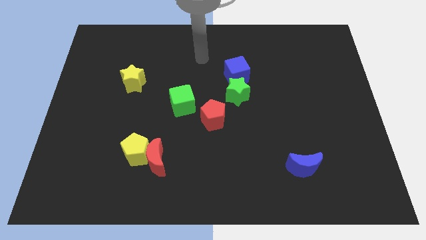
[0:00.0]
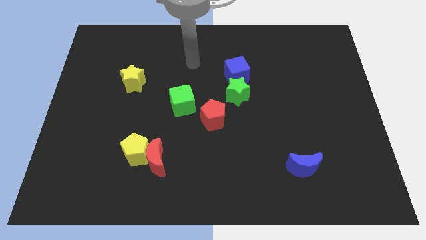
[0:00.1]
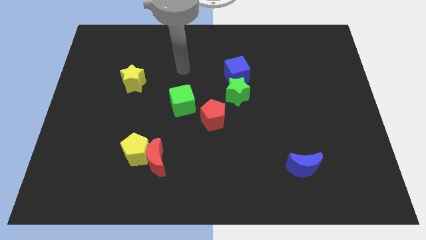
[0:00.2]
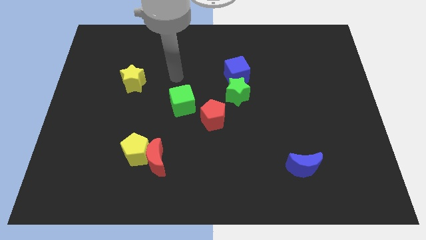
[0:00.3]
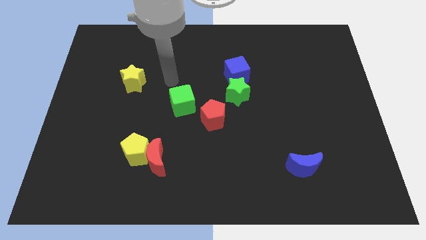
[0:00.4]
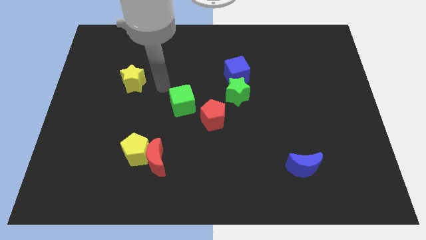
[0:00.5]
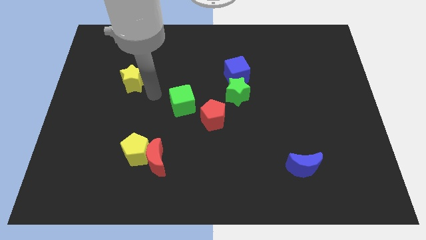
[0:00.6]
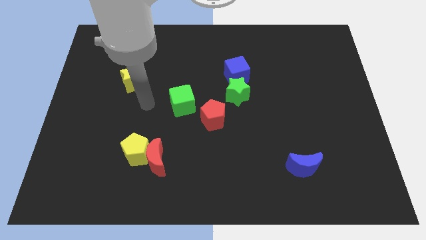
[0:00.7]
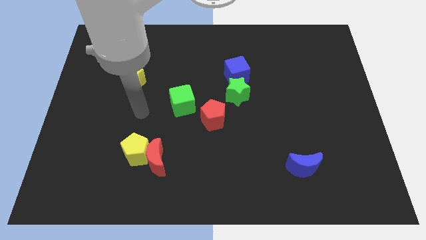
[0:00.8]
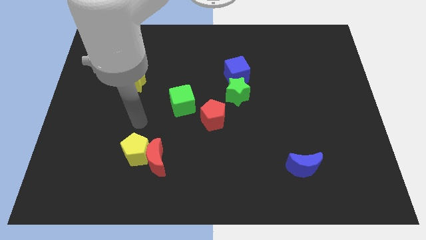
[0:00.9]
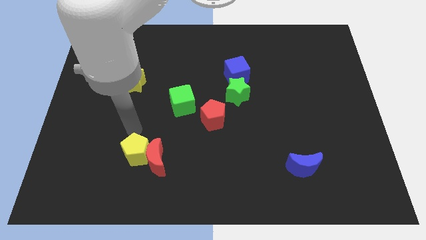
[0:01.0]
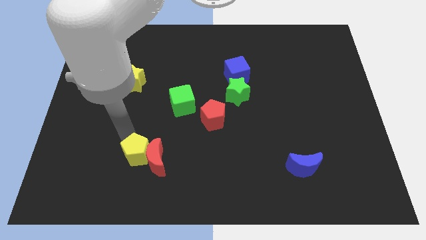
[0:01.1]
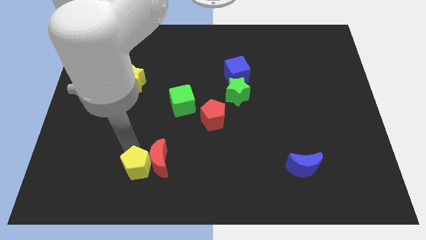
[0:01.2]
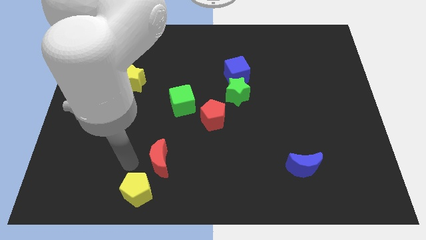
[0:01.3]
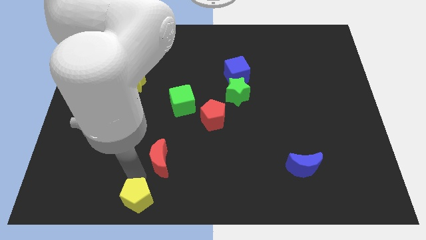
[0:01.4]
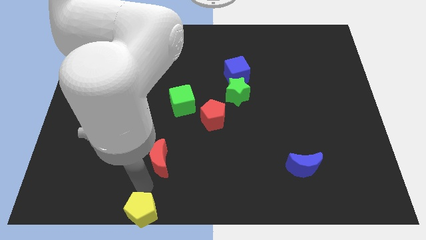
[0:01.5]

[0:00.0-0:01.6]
move the red moon away from the yellow pentagon

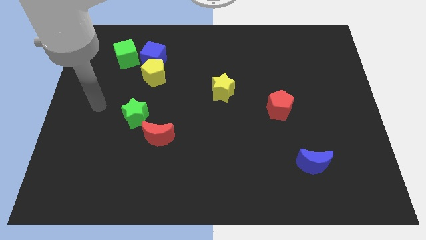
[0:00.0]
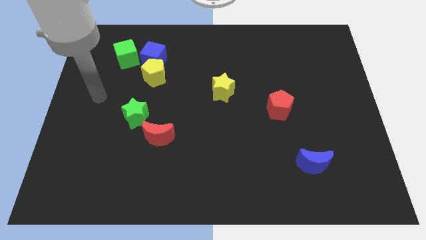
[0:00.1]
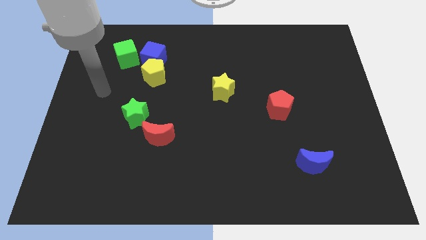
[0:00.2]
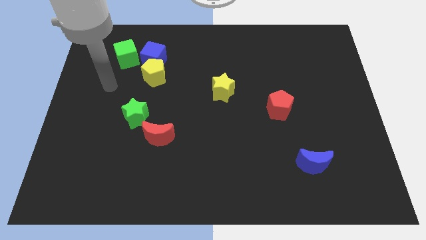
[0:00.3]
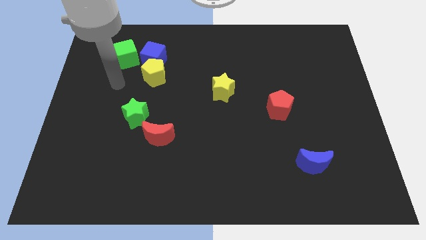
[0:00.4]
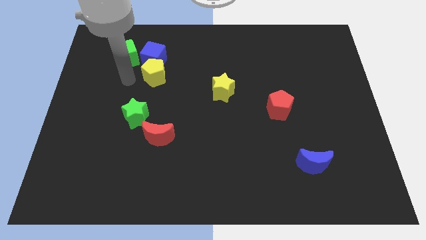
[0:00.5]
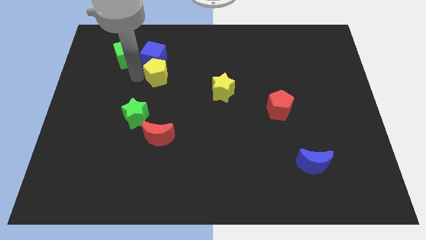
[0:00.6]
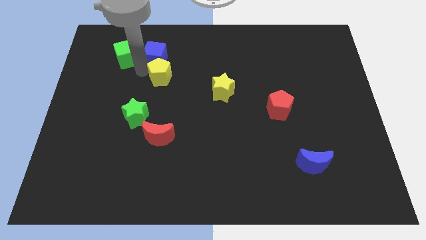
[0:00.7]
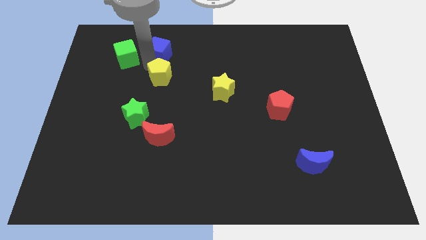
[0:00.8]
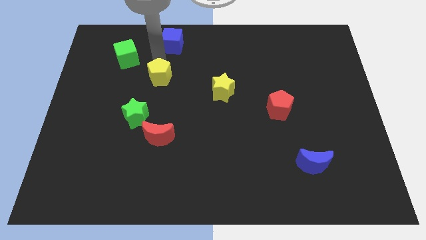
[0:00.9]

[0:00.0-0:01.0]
separate the yellow pentagon from the blue cube

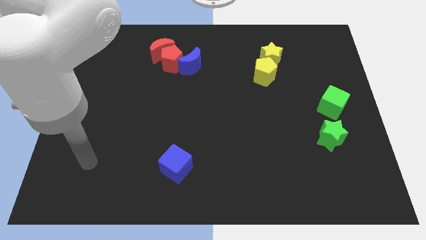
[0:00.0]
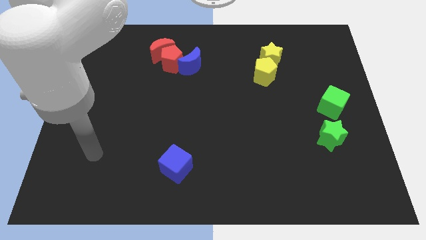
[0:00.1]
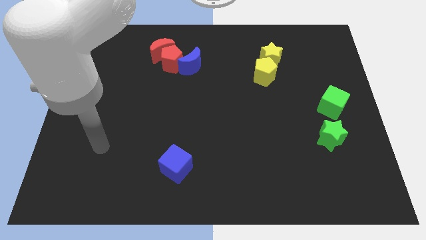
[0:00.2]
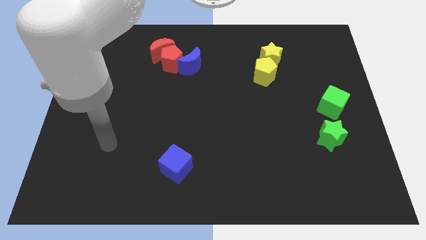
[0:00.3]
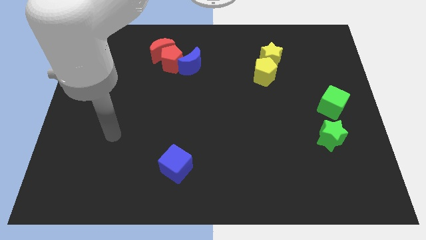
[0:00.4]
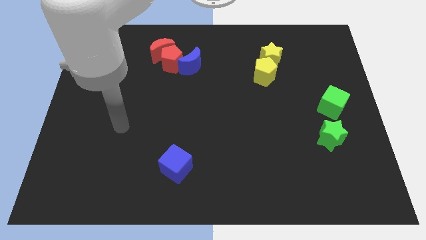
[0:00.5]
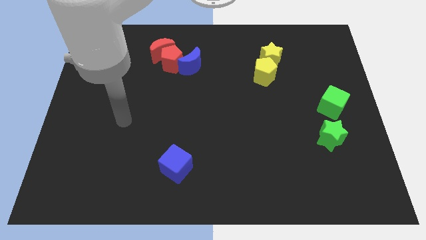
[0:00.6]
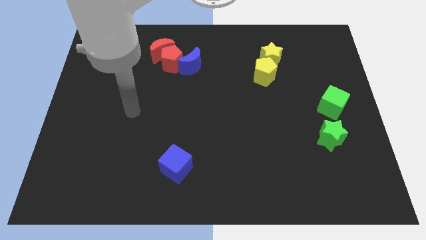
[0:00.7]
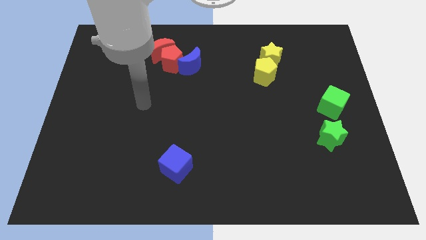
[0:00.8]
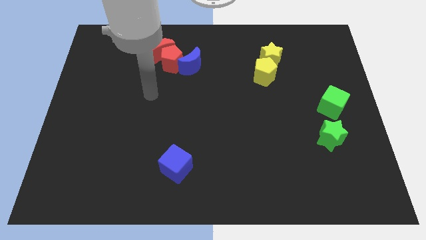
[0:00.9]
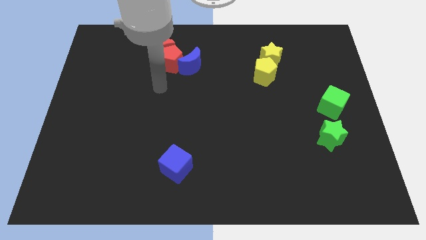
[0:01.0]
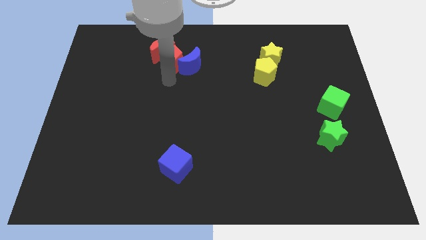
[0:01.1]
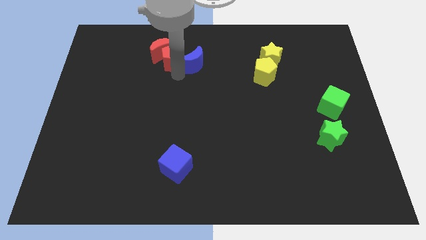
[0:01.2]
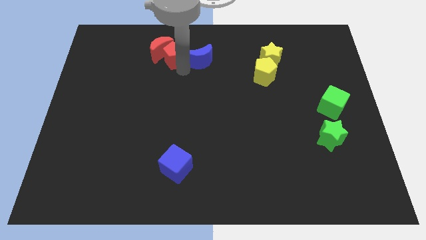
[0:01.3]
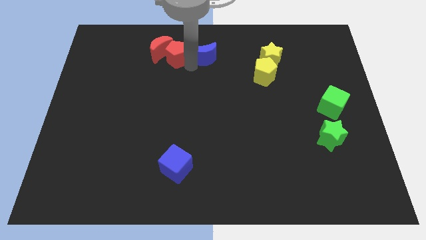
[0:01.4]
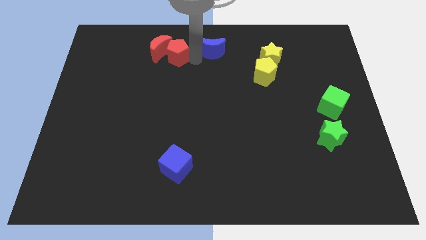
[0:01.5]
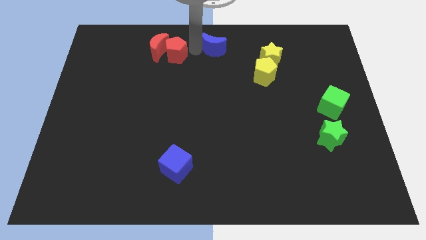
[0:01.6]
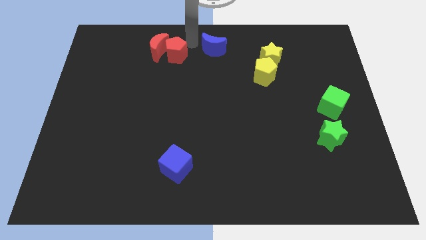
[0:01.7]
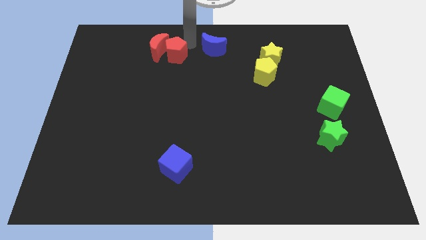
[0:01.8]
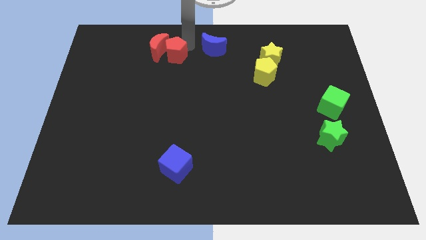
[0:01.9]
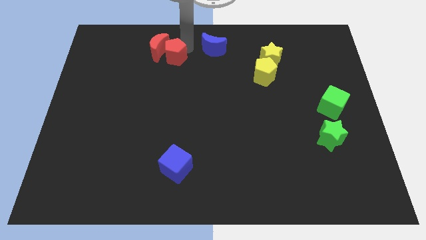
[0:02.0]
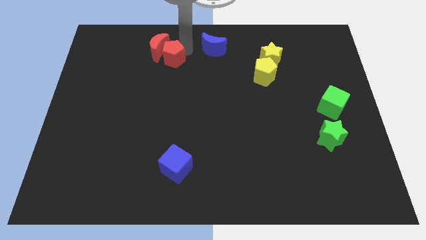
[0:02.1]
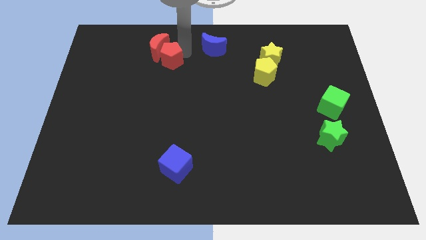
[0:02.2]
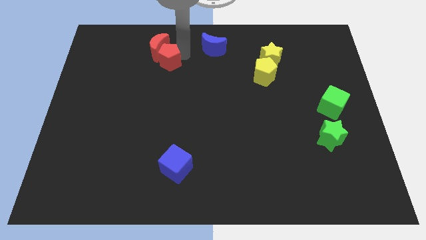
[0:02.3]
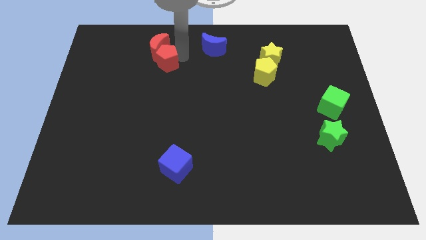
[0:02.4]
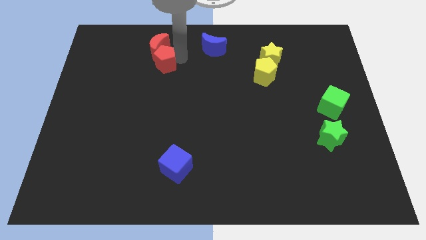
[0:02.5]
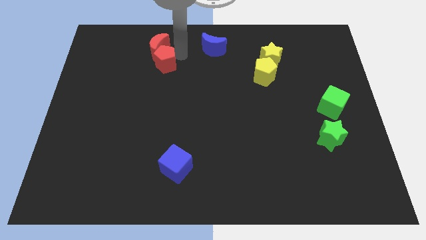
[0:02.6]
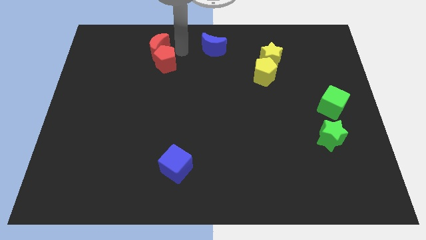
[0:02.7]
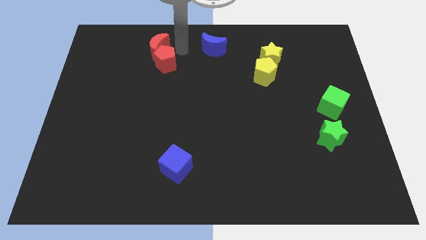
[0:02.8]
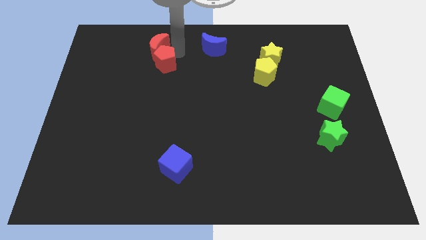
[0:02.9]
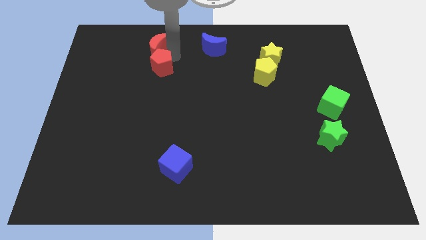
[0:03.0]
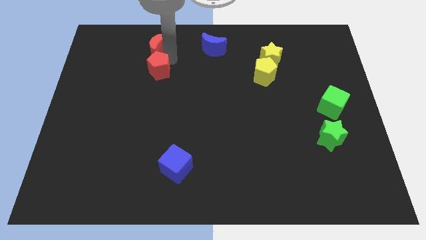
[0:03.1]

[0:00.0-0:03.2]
separate the red pentagon from the red moon and blue moon

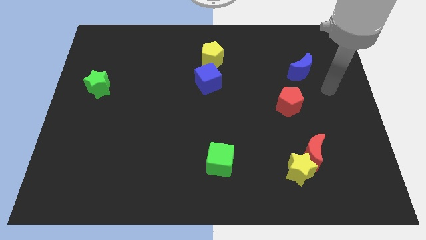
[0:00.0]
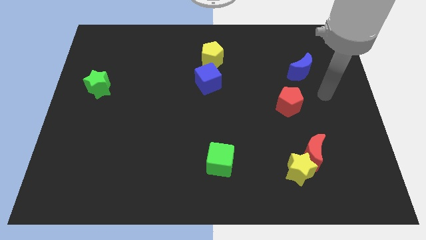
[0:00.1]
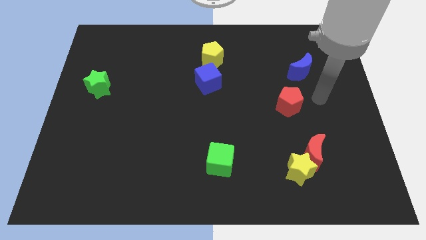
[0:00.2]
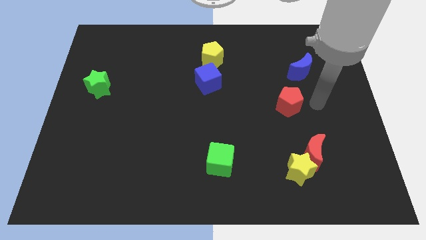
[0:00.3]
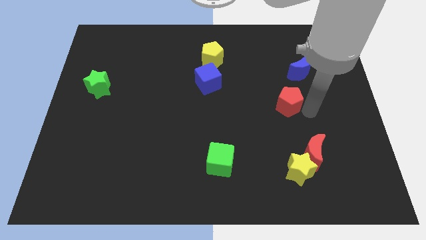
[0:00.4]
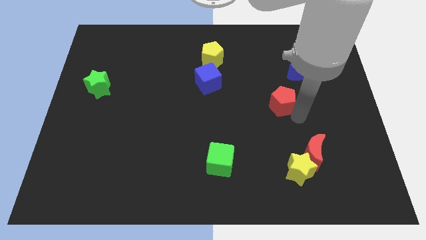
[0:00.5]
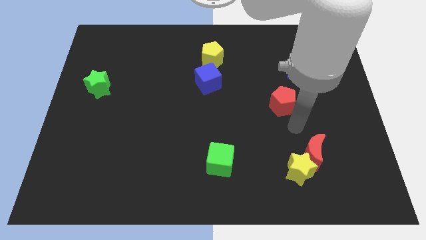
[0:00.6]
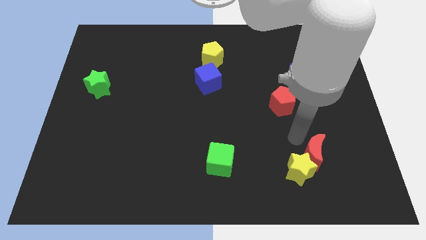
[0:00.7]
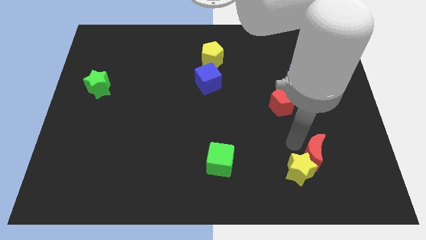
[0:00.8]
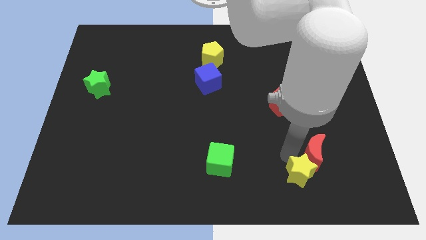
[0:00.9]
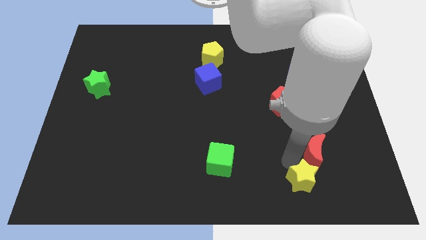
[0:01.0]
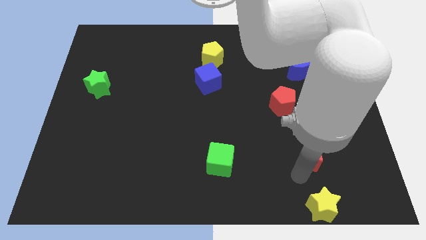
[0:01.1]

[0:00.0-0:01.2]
move the red moon away from the yellow star

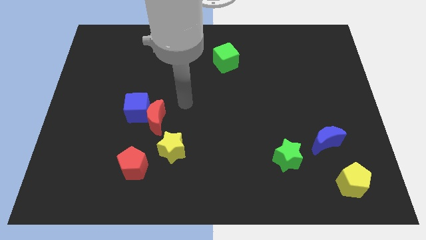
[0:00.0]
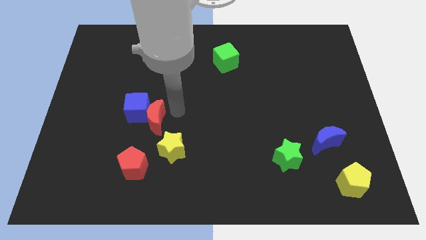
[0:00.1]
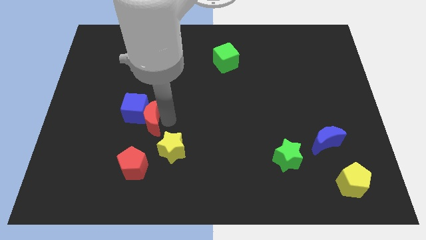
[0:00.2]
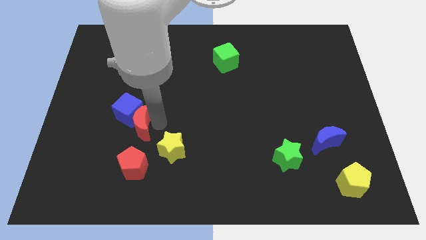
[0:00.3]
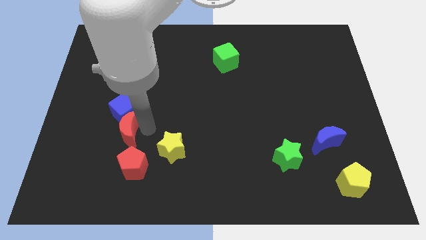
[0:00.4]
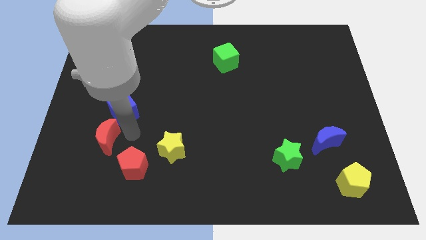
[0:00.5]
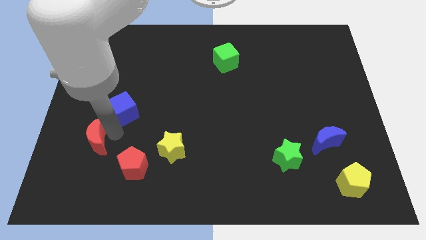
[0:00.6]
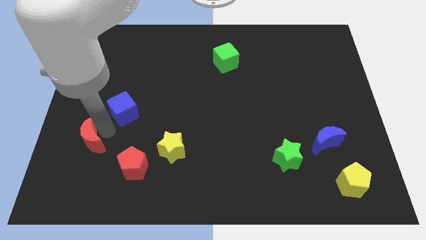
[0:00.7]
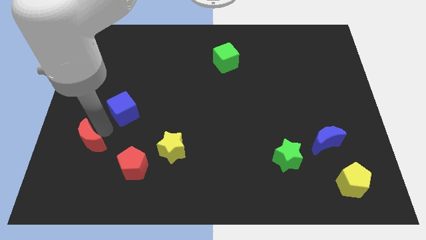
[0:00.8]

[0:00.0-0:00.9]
move the blue cube away from the red moon

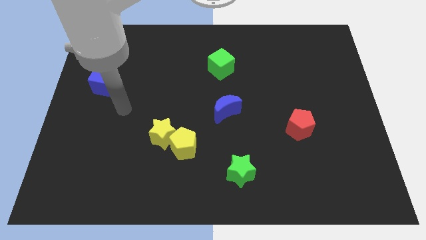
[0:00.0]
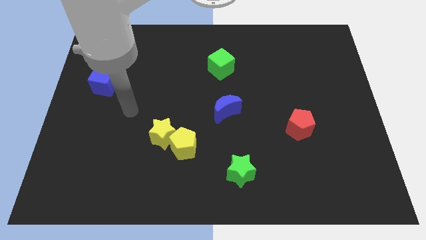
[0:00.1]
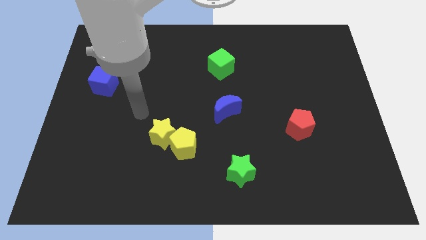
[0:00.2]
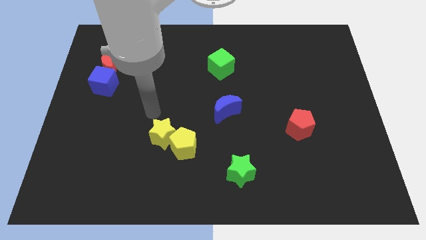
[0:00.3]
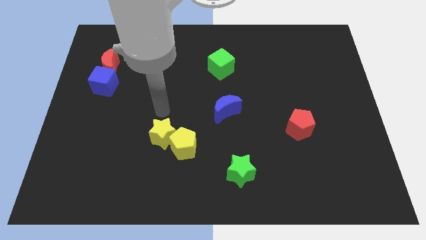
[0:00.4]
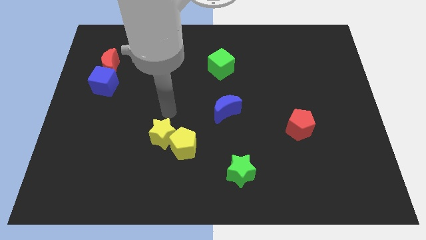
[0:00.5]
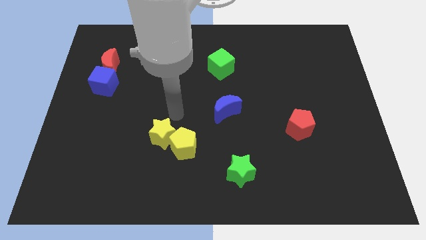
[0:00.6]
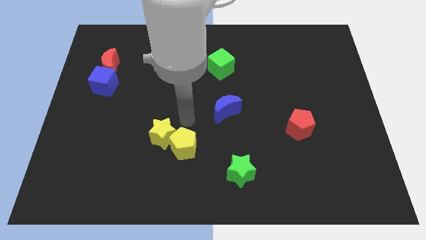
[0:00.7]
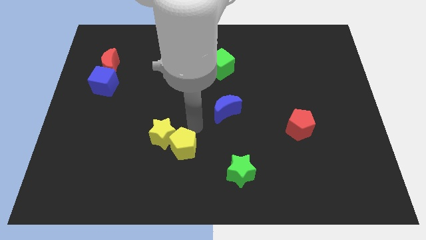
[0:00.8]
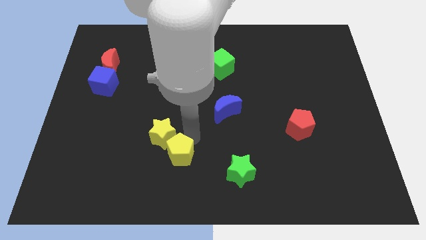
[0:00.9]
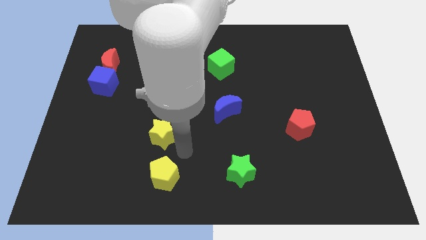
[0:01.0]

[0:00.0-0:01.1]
move the yellow star away from the yellow pentagon

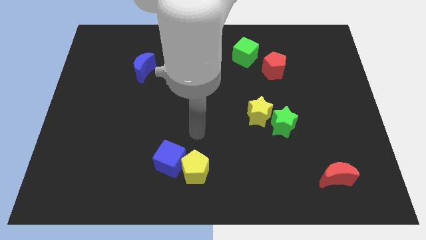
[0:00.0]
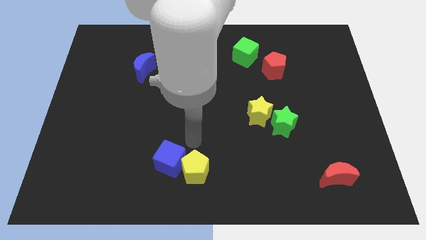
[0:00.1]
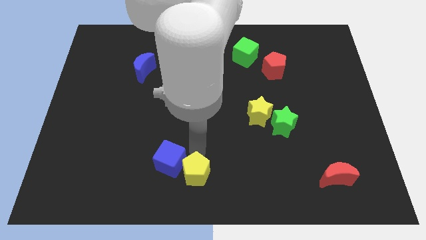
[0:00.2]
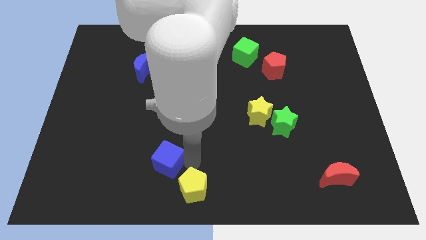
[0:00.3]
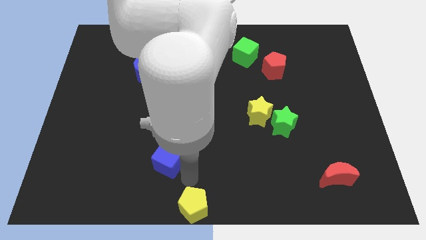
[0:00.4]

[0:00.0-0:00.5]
pull the blue cube apart from the yellow pentagon

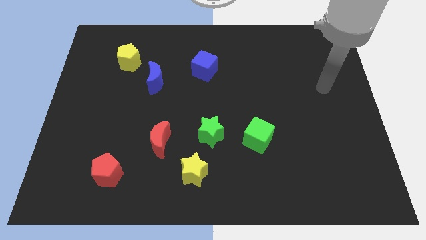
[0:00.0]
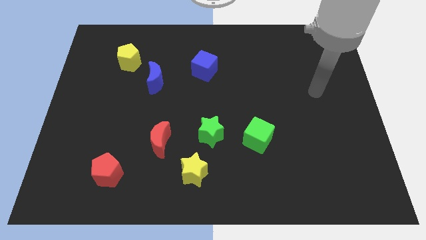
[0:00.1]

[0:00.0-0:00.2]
separate the yellow star from the green star
